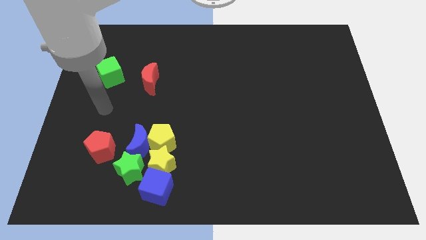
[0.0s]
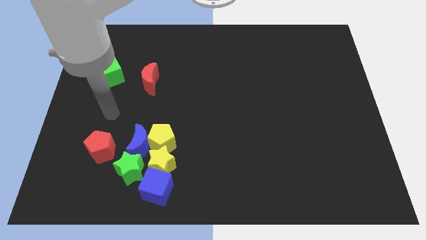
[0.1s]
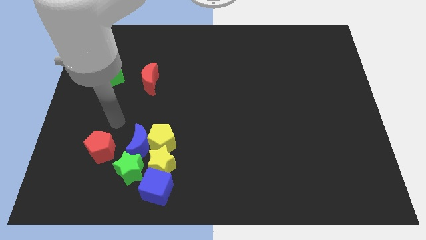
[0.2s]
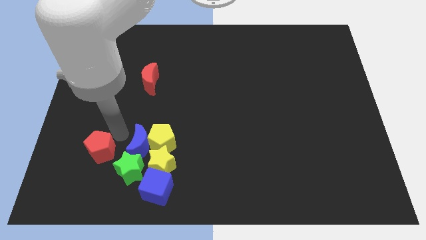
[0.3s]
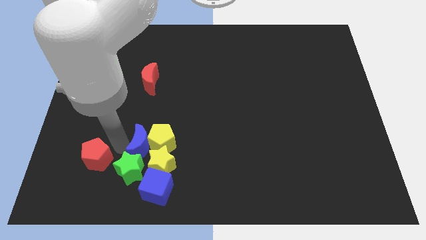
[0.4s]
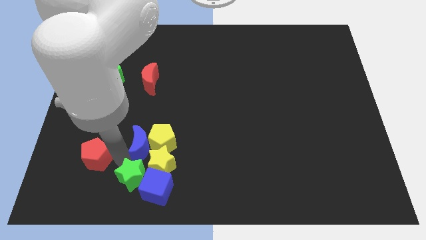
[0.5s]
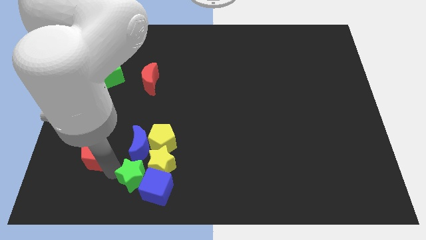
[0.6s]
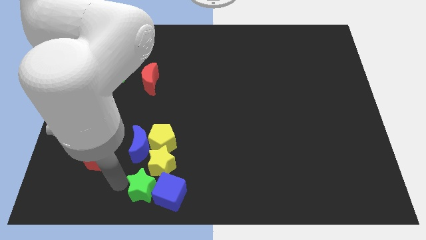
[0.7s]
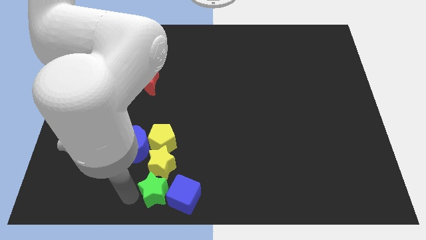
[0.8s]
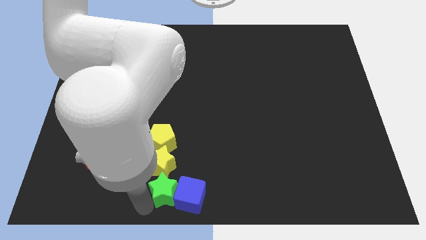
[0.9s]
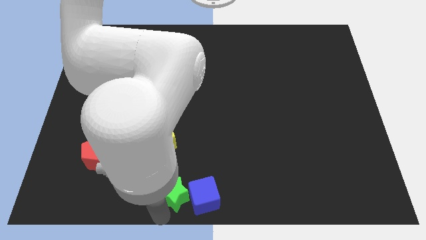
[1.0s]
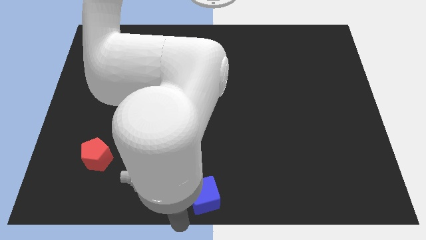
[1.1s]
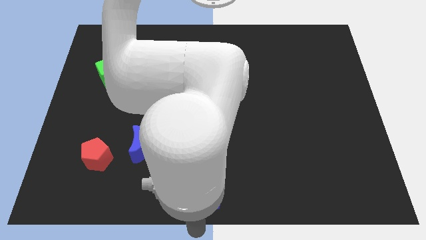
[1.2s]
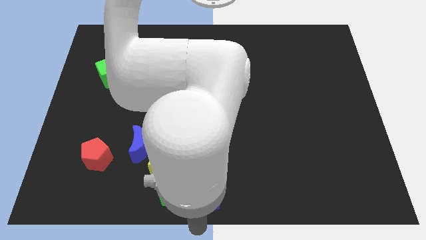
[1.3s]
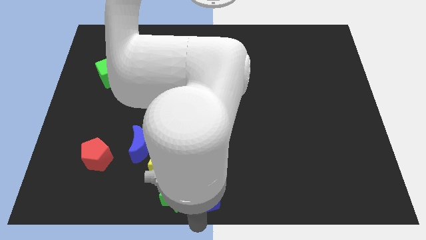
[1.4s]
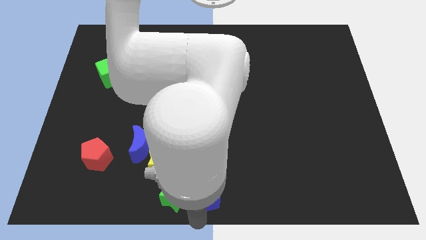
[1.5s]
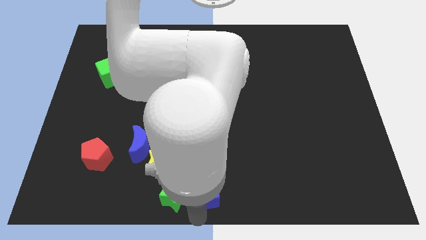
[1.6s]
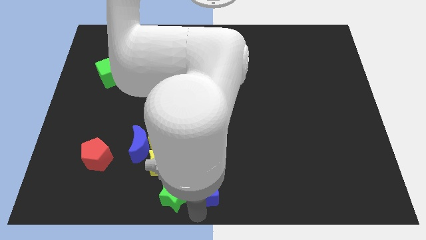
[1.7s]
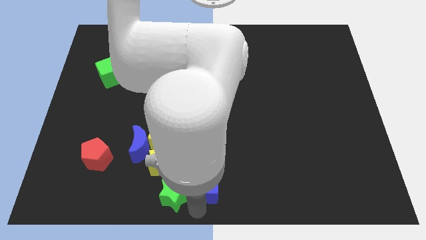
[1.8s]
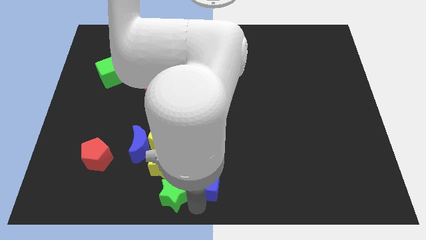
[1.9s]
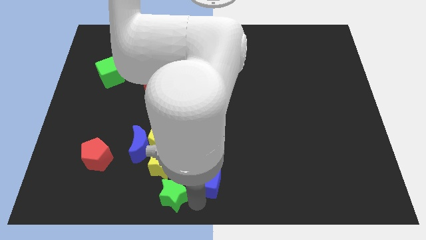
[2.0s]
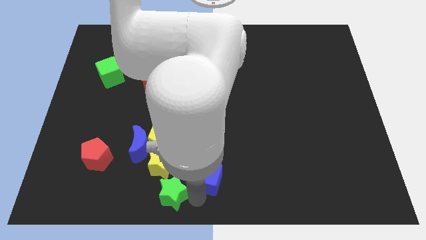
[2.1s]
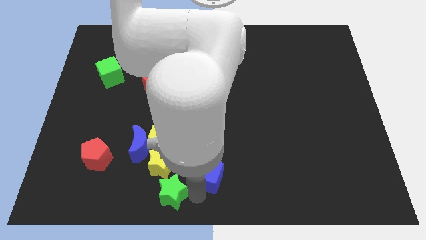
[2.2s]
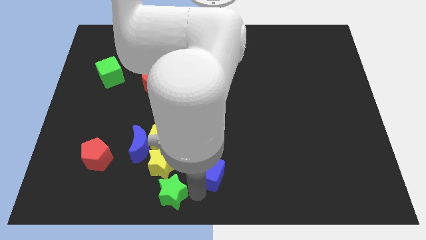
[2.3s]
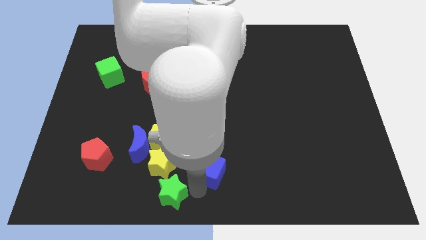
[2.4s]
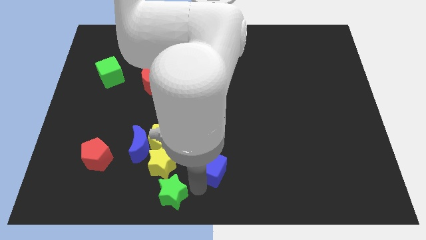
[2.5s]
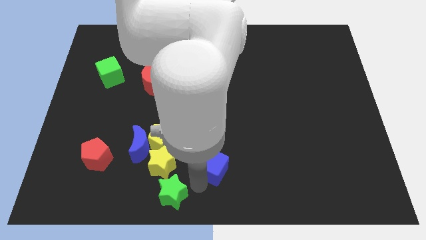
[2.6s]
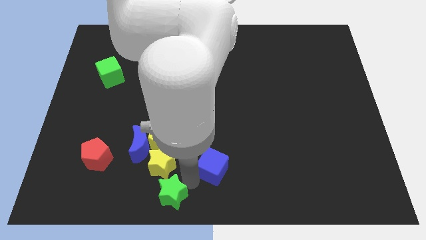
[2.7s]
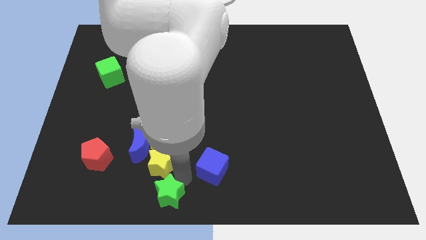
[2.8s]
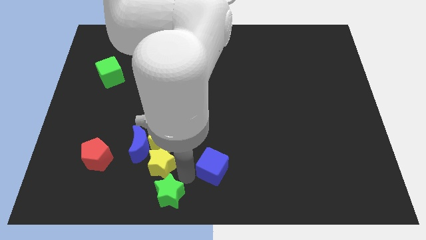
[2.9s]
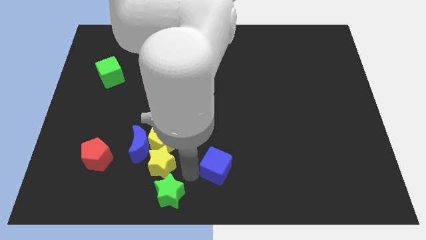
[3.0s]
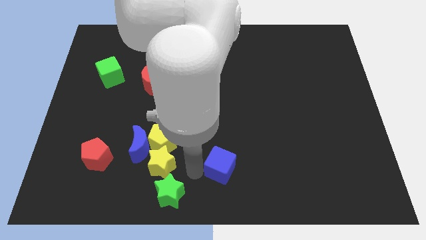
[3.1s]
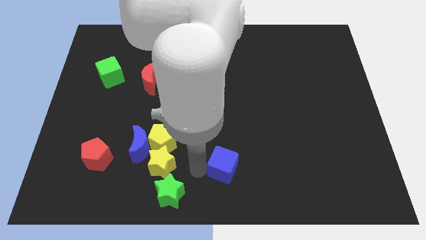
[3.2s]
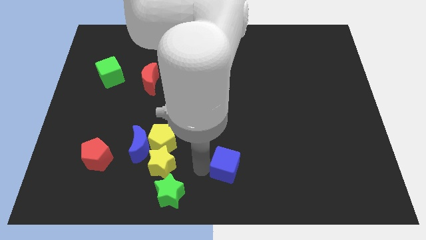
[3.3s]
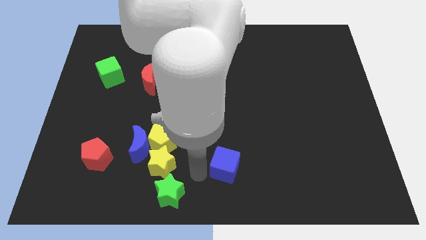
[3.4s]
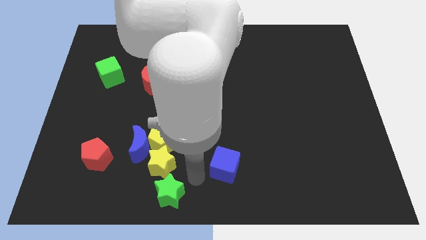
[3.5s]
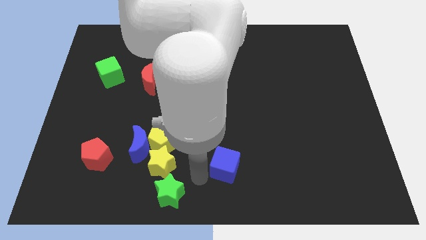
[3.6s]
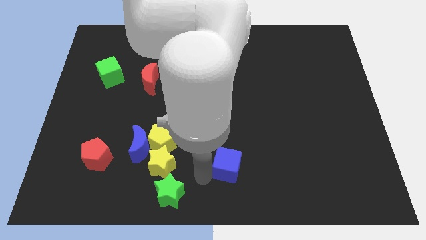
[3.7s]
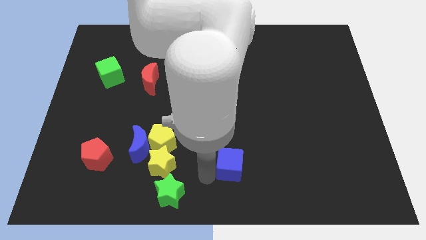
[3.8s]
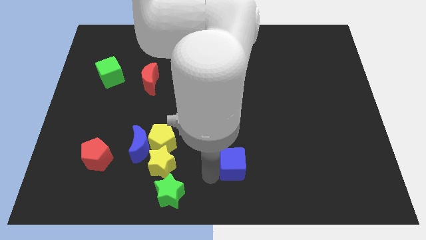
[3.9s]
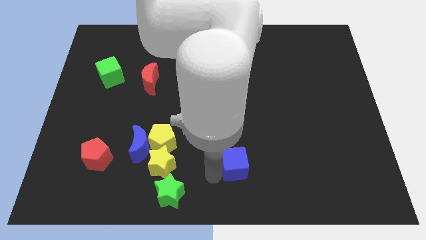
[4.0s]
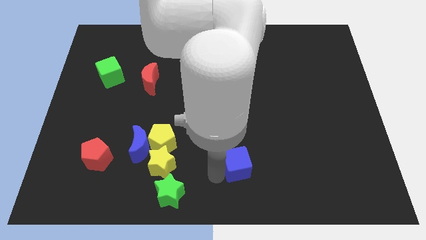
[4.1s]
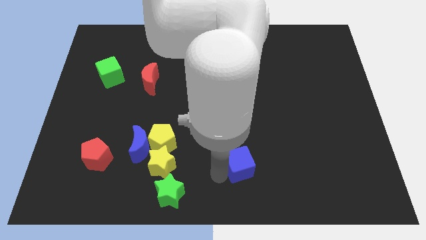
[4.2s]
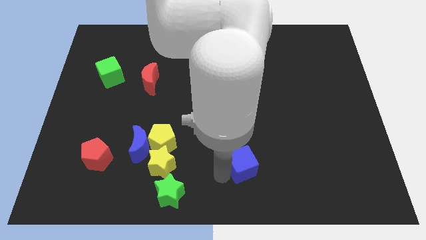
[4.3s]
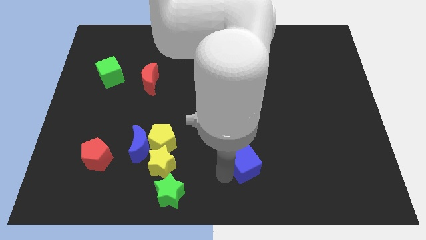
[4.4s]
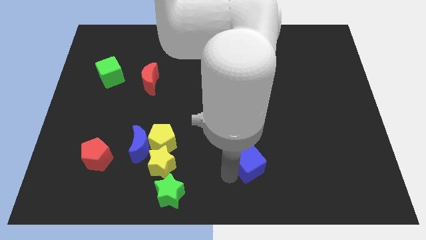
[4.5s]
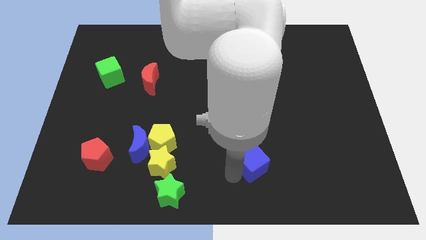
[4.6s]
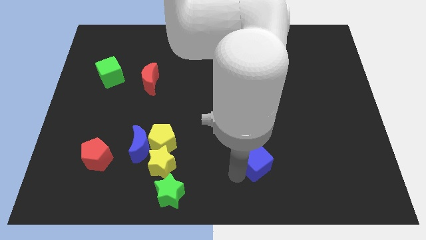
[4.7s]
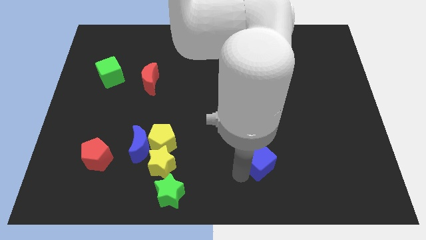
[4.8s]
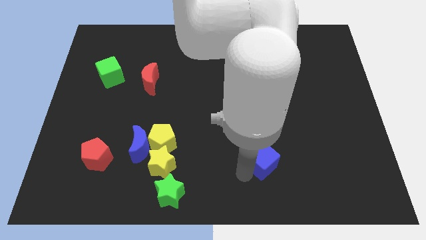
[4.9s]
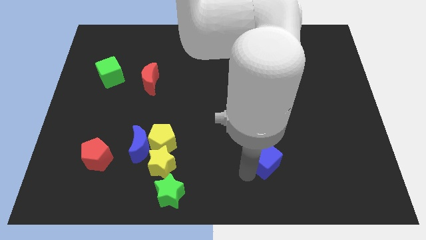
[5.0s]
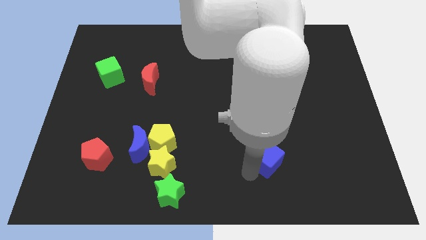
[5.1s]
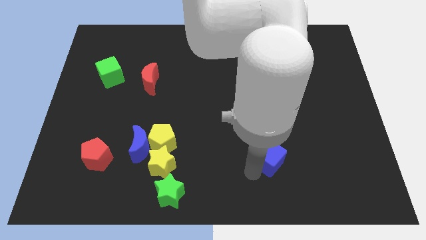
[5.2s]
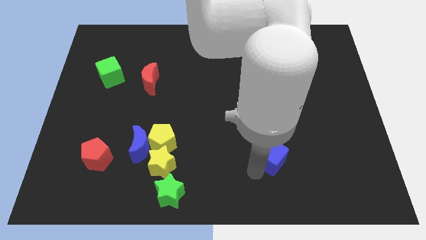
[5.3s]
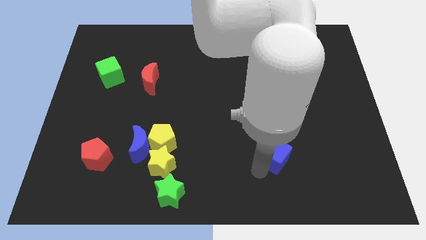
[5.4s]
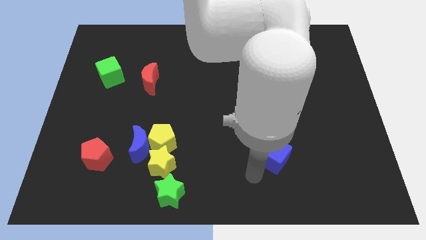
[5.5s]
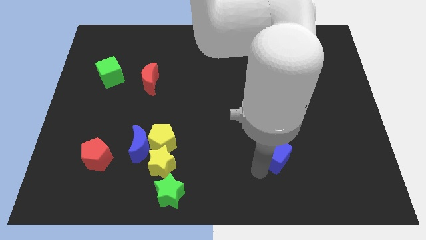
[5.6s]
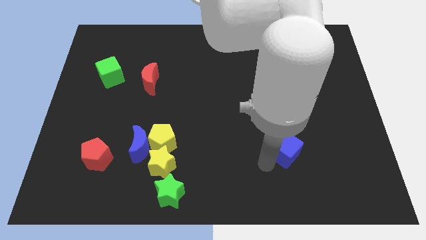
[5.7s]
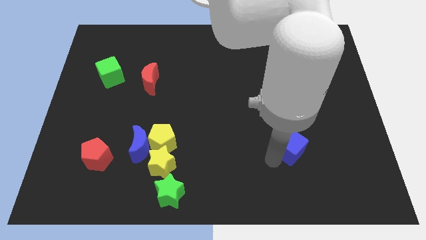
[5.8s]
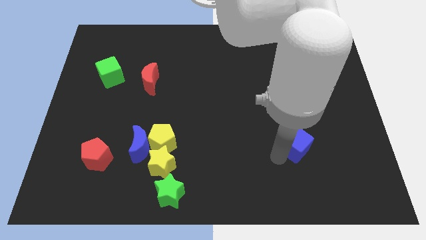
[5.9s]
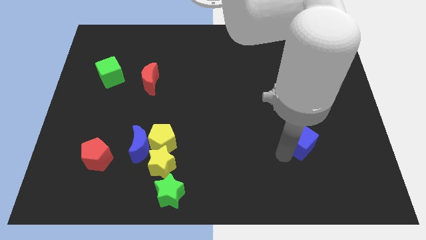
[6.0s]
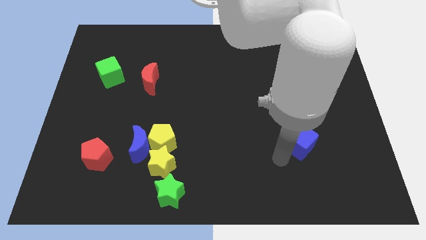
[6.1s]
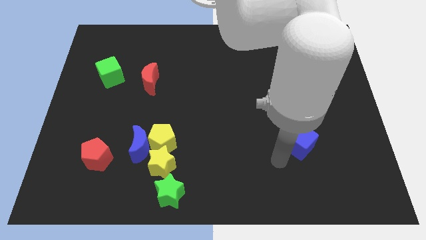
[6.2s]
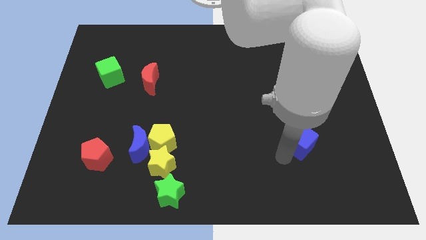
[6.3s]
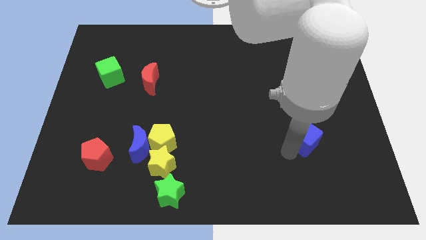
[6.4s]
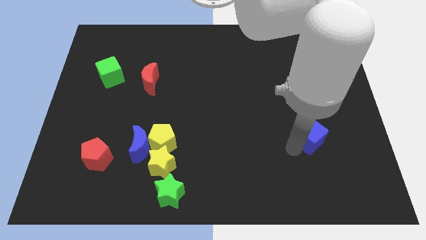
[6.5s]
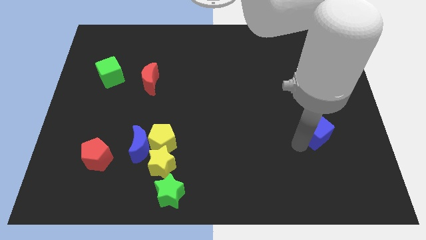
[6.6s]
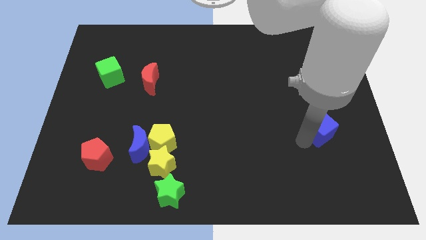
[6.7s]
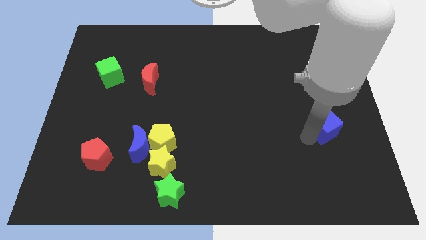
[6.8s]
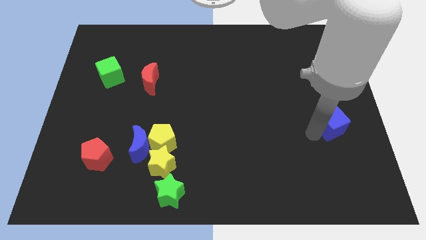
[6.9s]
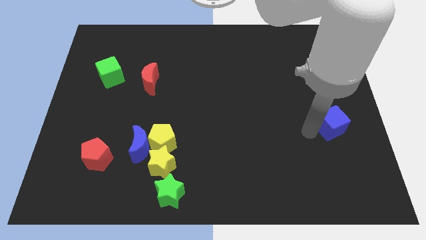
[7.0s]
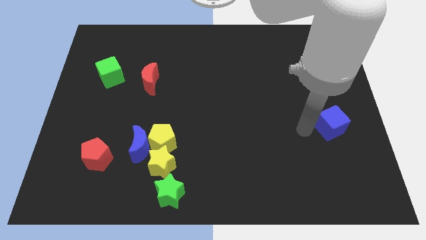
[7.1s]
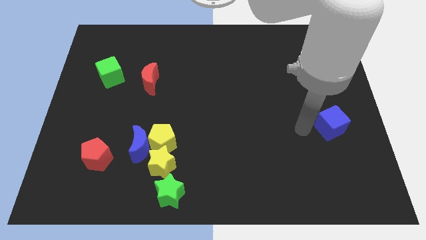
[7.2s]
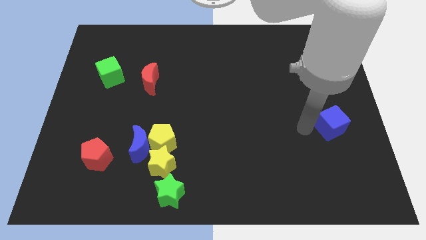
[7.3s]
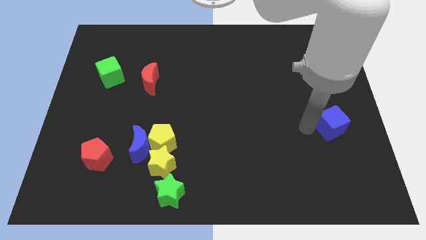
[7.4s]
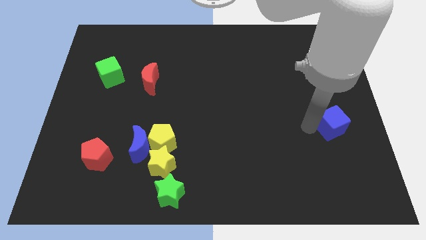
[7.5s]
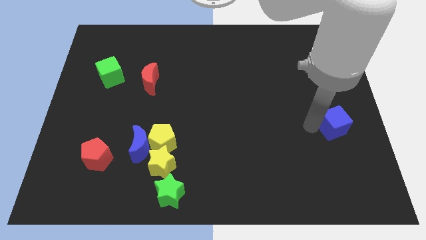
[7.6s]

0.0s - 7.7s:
slide the blue cube to the center right
